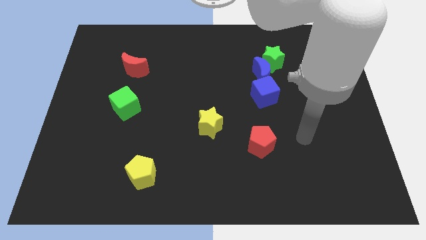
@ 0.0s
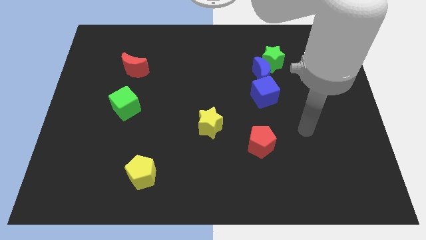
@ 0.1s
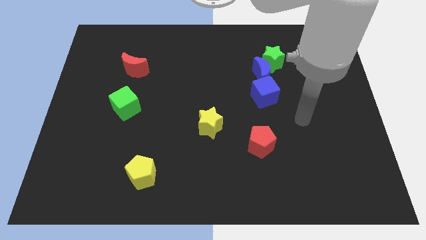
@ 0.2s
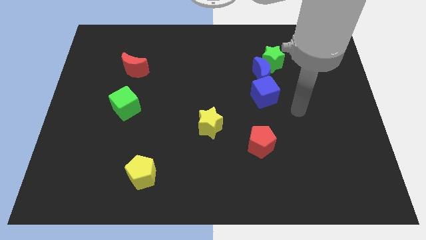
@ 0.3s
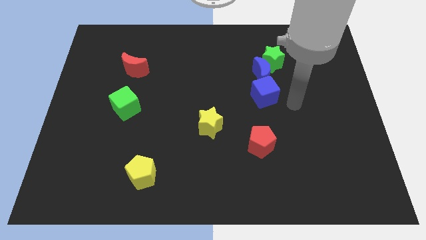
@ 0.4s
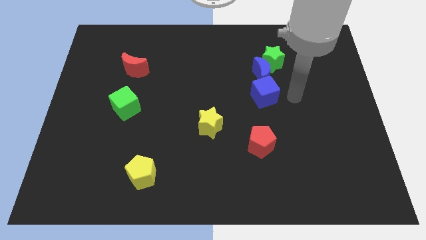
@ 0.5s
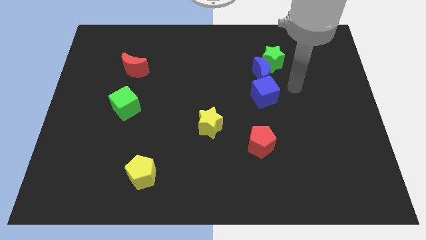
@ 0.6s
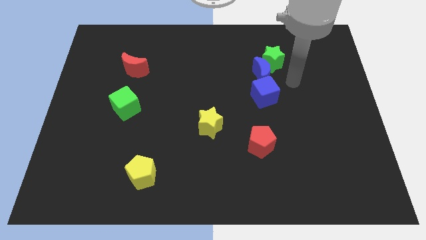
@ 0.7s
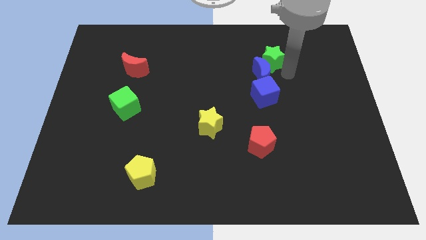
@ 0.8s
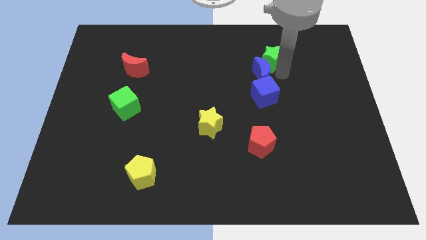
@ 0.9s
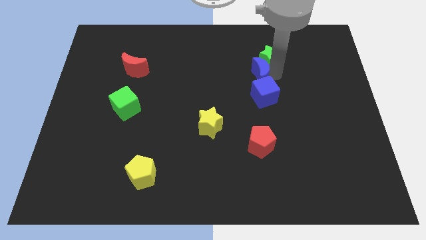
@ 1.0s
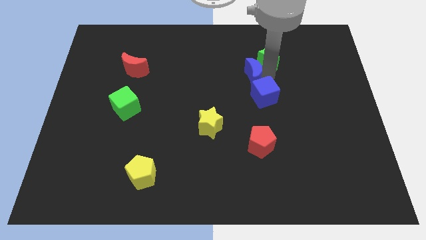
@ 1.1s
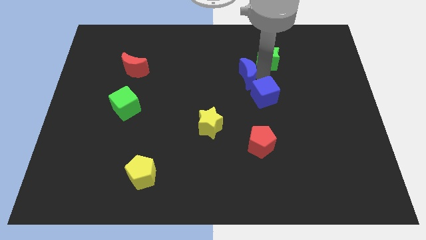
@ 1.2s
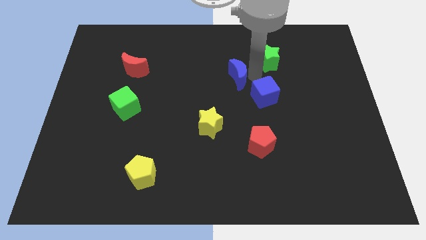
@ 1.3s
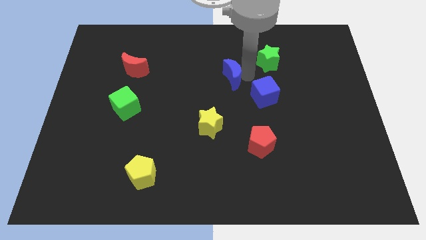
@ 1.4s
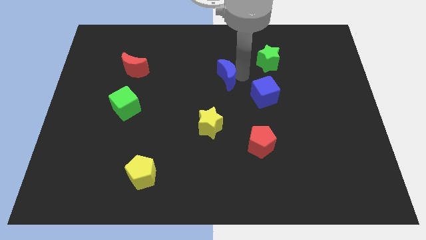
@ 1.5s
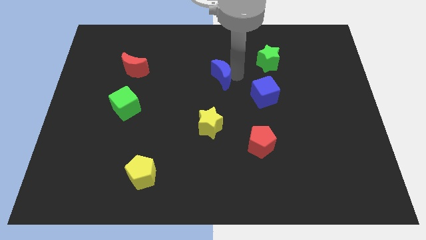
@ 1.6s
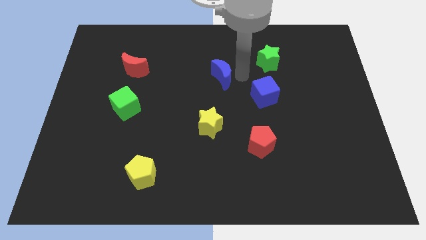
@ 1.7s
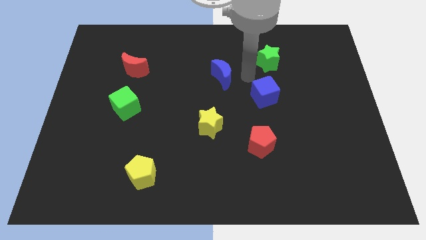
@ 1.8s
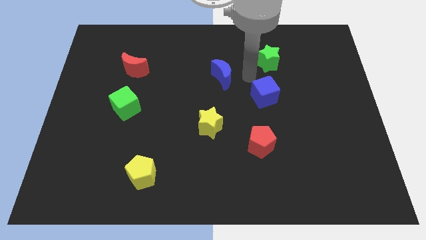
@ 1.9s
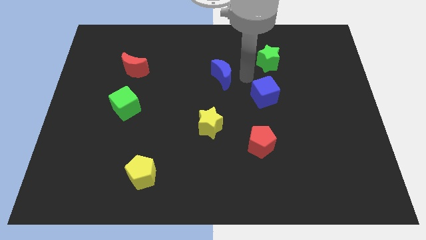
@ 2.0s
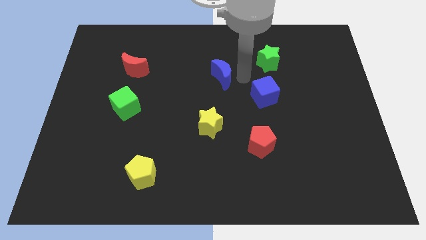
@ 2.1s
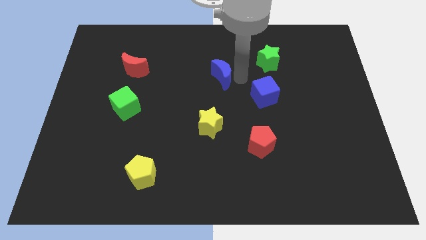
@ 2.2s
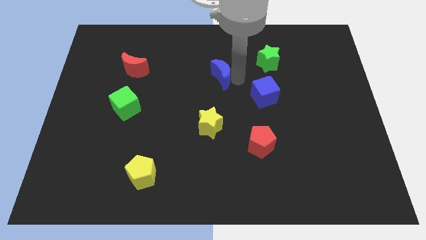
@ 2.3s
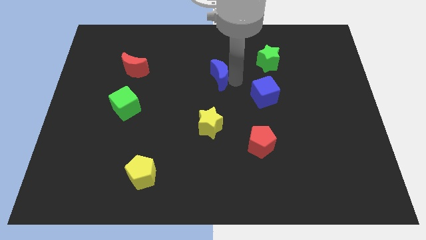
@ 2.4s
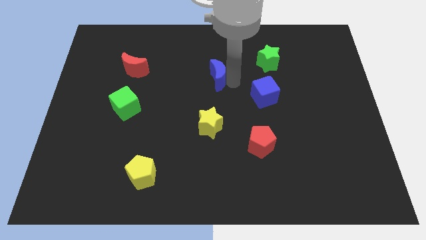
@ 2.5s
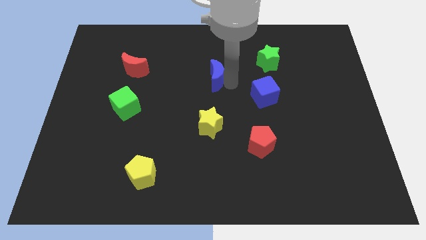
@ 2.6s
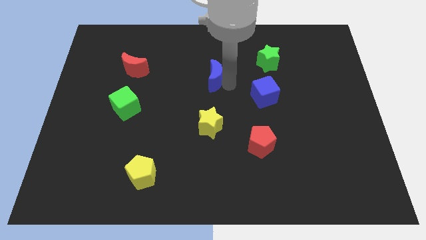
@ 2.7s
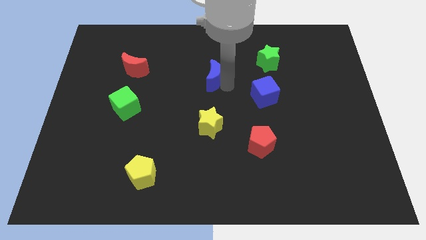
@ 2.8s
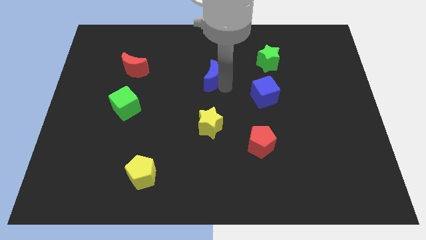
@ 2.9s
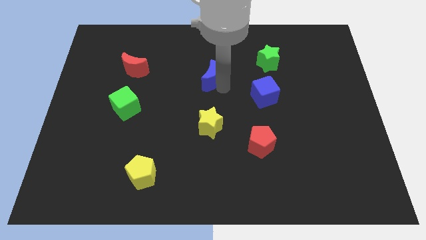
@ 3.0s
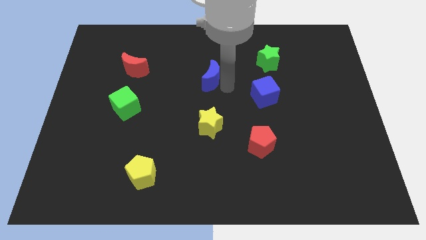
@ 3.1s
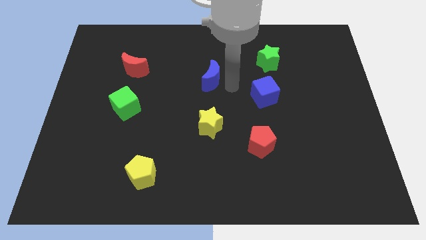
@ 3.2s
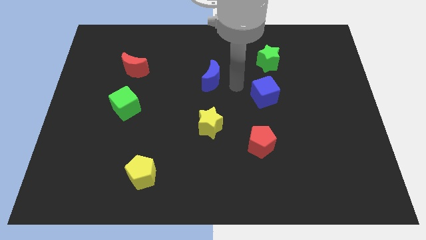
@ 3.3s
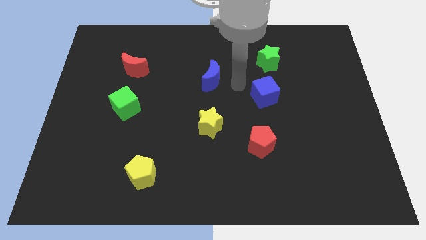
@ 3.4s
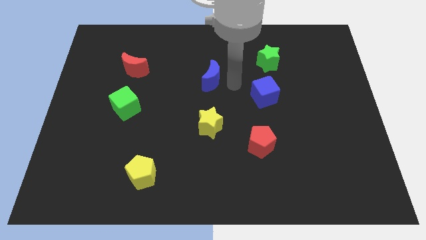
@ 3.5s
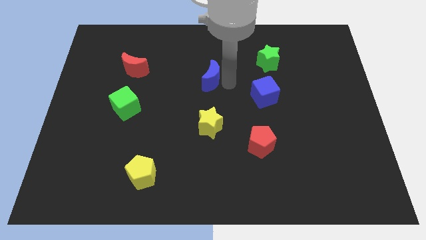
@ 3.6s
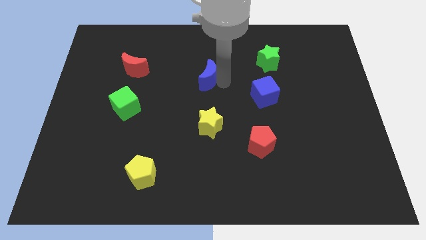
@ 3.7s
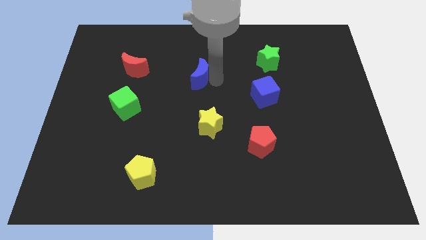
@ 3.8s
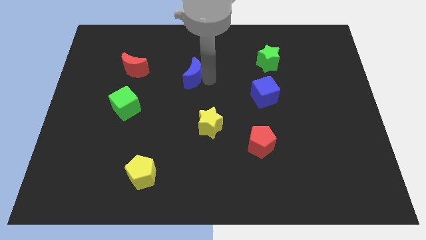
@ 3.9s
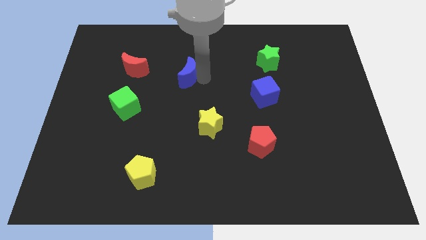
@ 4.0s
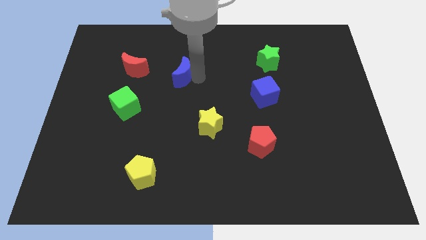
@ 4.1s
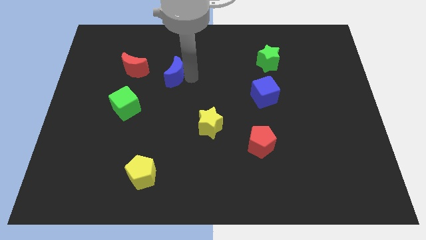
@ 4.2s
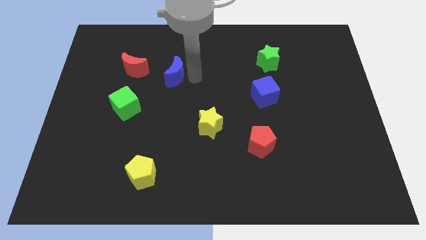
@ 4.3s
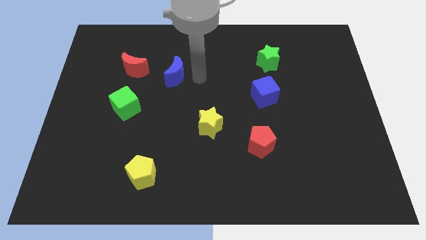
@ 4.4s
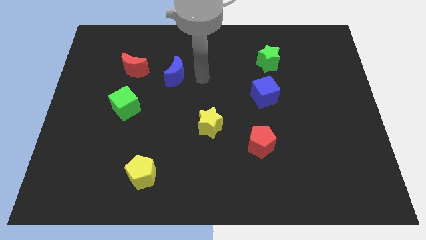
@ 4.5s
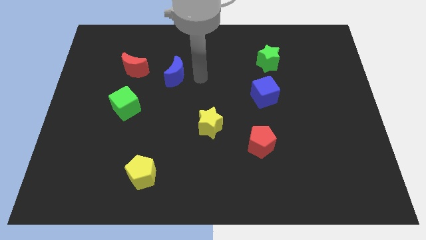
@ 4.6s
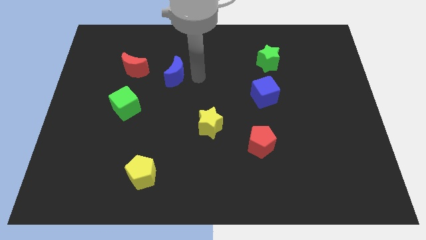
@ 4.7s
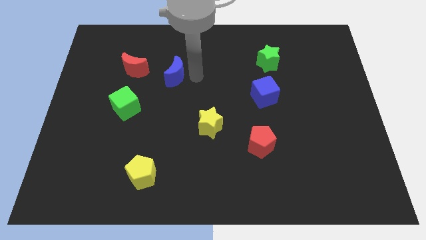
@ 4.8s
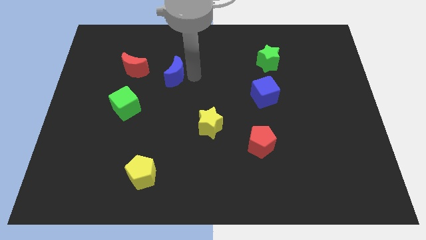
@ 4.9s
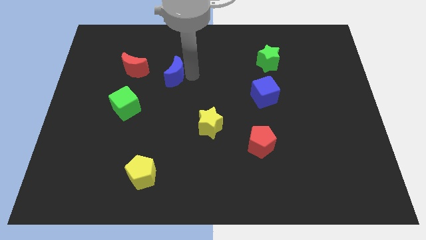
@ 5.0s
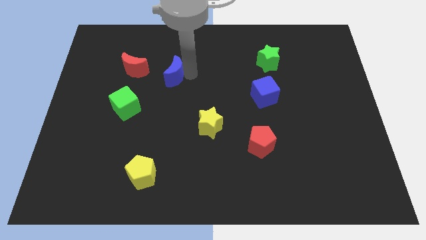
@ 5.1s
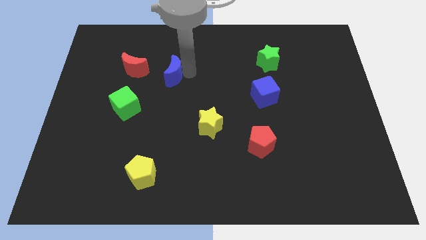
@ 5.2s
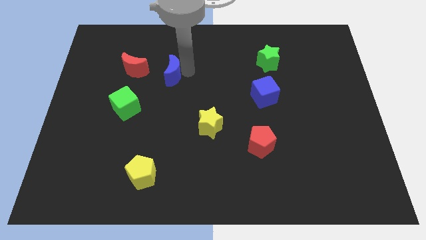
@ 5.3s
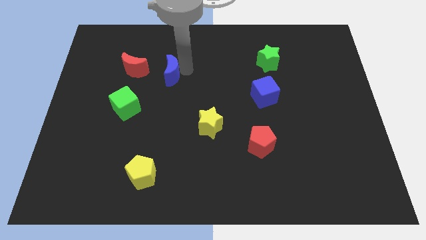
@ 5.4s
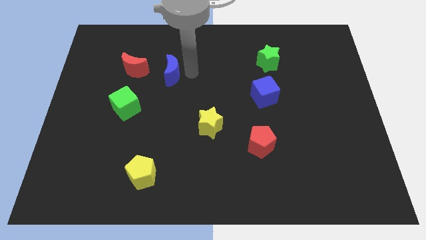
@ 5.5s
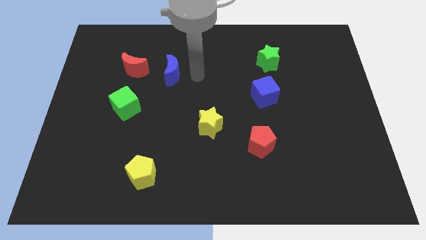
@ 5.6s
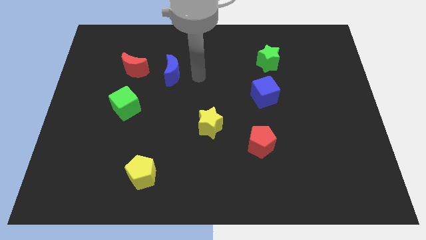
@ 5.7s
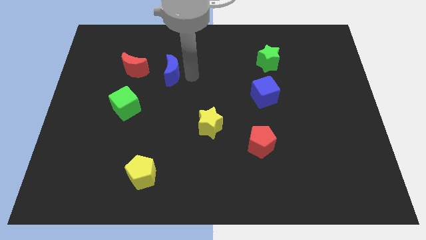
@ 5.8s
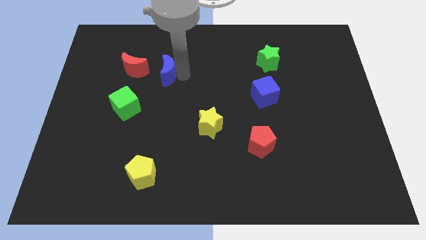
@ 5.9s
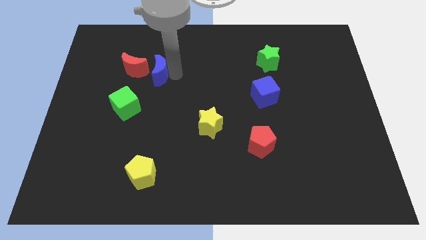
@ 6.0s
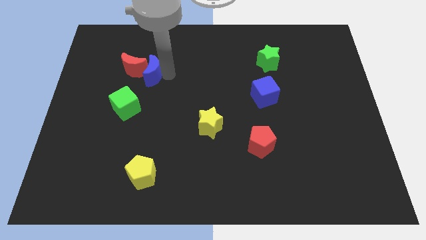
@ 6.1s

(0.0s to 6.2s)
push the blue moon towards the red moon

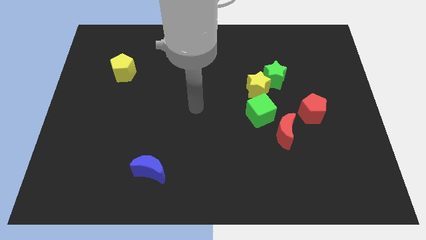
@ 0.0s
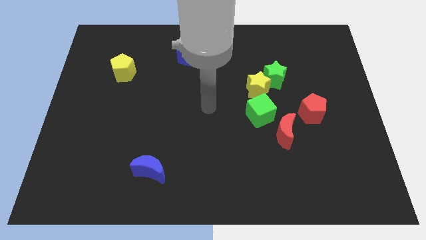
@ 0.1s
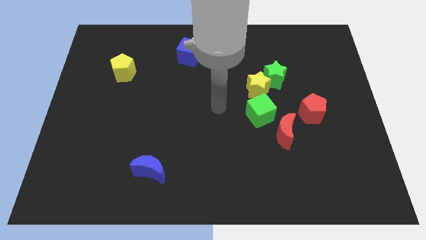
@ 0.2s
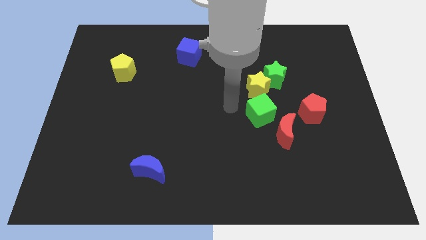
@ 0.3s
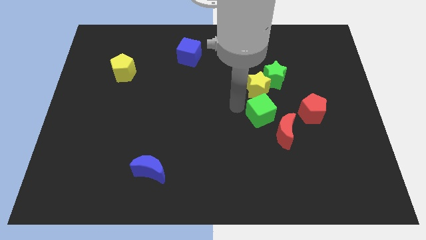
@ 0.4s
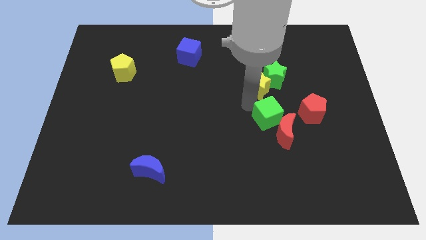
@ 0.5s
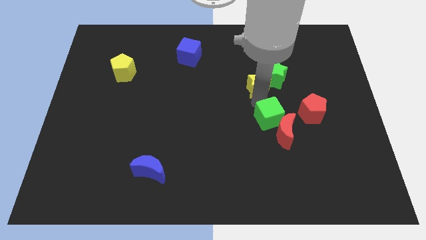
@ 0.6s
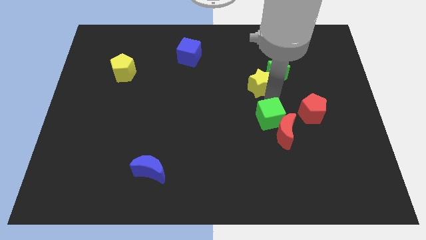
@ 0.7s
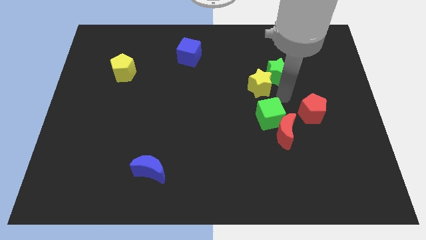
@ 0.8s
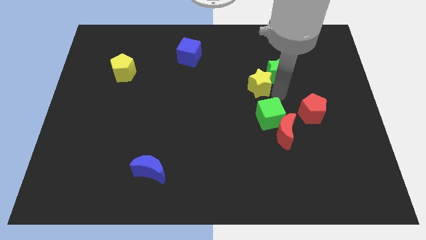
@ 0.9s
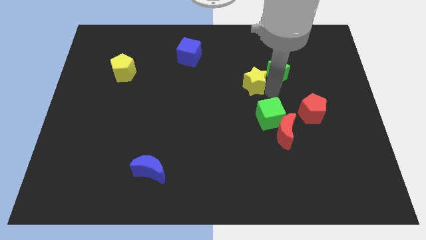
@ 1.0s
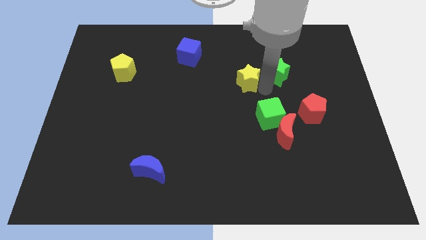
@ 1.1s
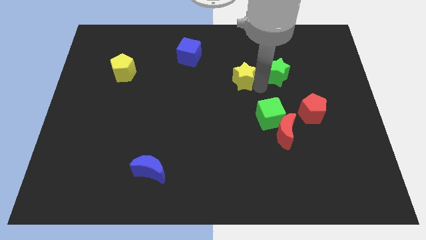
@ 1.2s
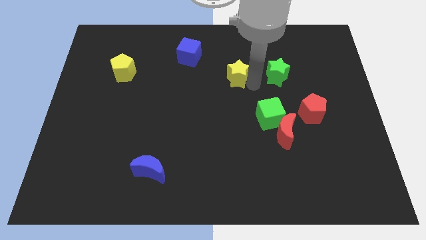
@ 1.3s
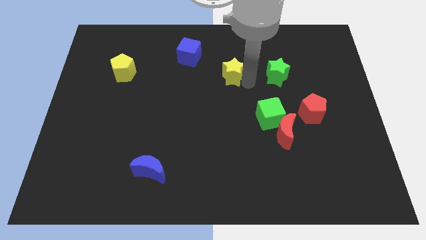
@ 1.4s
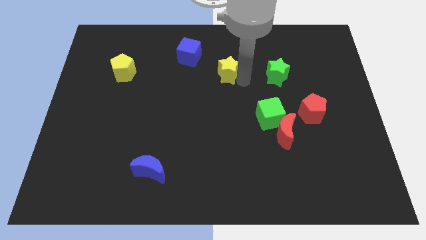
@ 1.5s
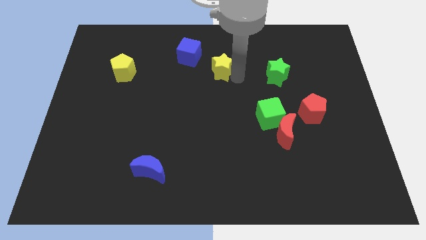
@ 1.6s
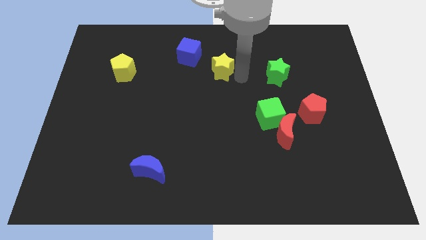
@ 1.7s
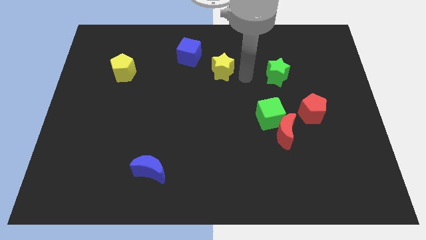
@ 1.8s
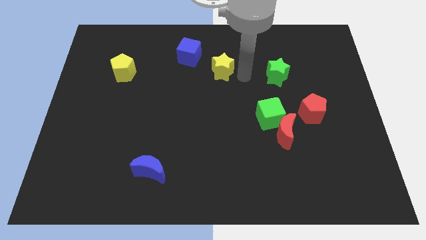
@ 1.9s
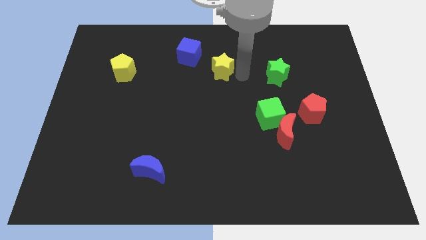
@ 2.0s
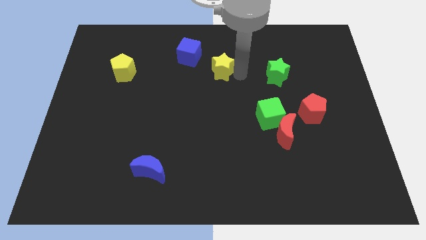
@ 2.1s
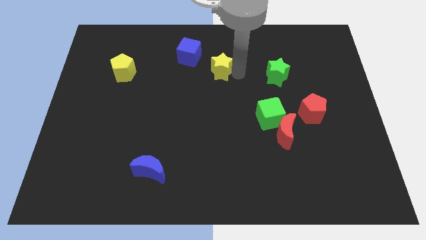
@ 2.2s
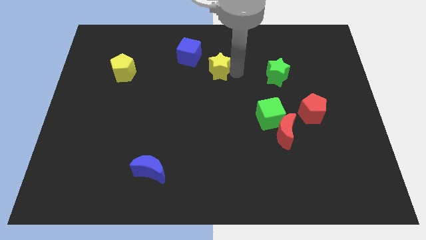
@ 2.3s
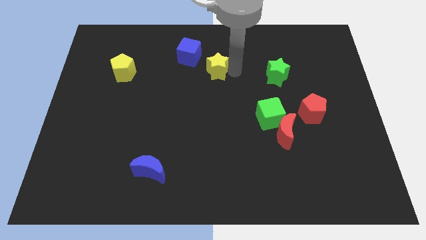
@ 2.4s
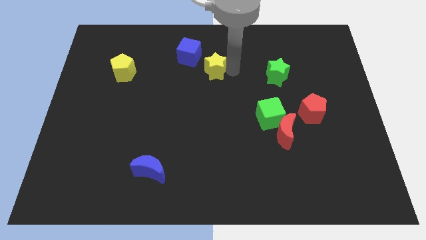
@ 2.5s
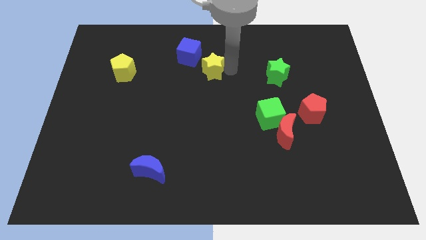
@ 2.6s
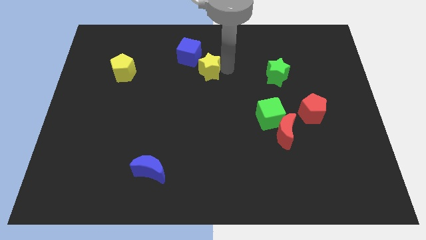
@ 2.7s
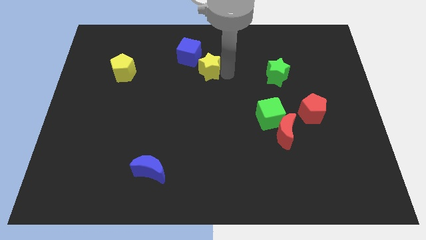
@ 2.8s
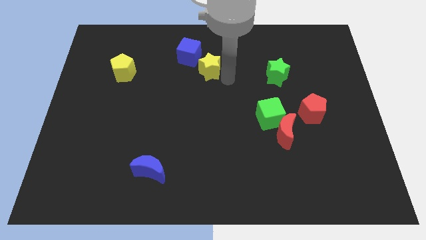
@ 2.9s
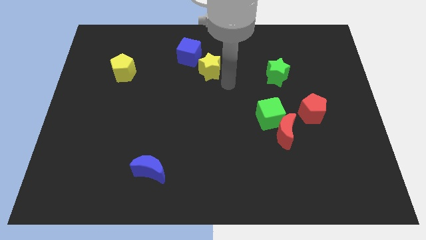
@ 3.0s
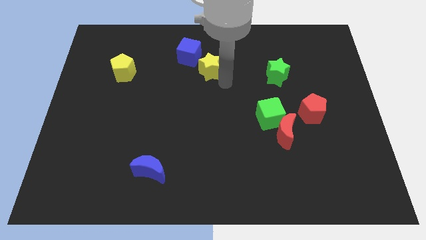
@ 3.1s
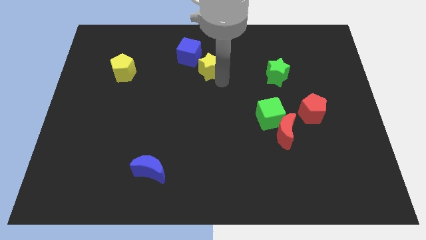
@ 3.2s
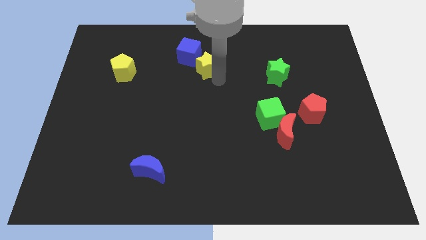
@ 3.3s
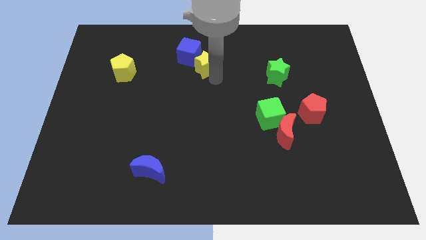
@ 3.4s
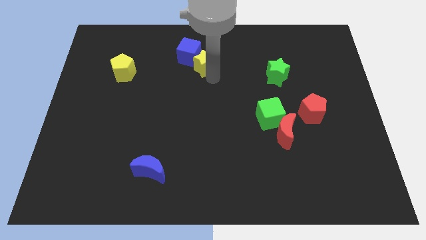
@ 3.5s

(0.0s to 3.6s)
move the yellow star close to the blue cube
